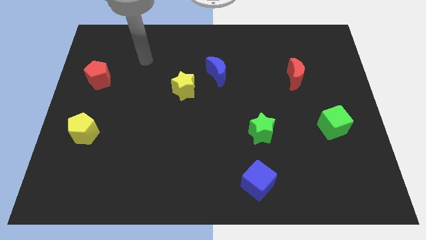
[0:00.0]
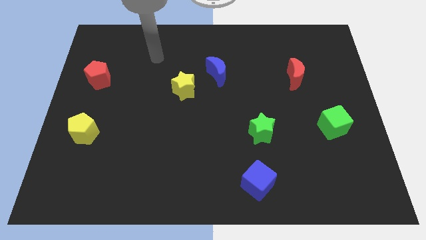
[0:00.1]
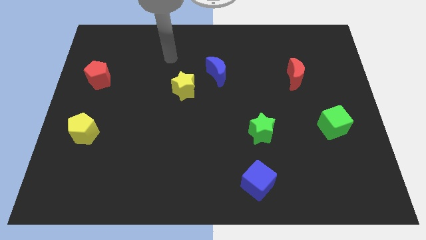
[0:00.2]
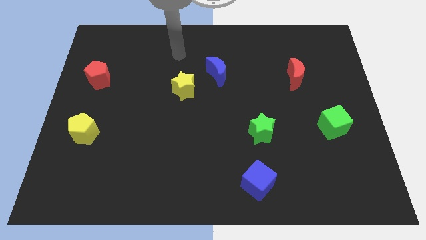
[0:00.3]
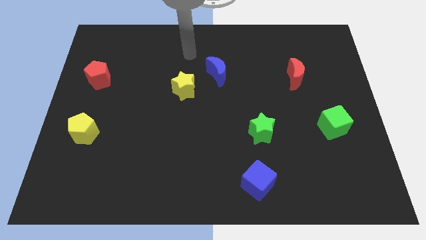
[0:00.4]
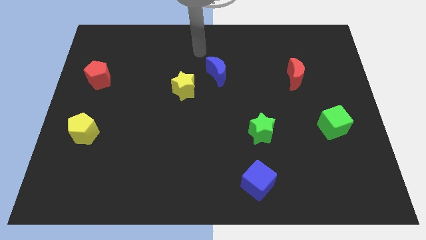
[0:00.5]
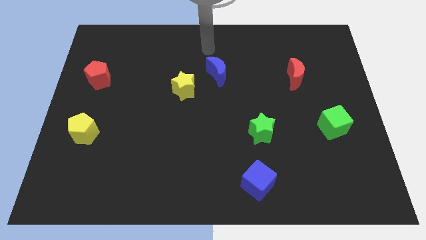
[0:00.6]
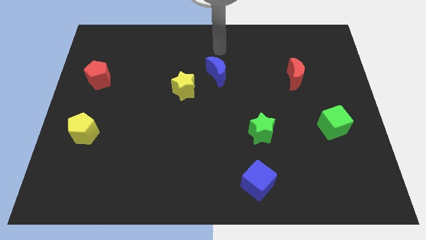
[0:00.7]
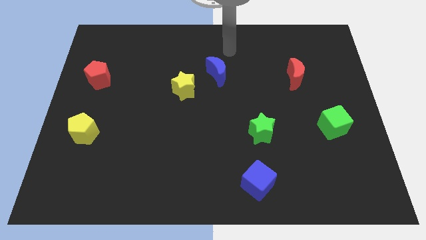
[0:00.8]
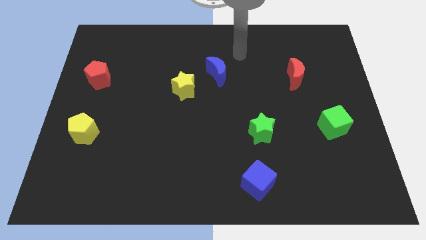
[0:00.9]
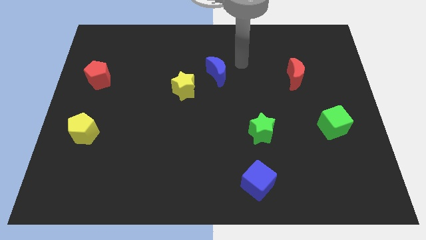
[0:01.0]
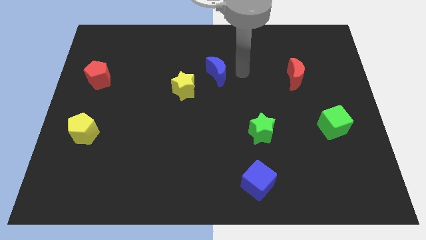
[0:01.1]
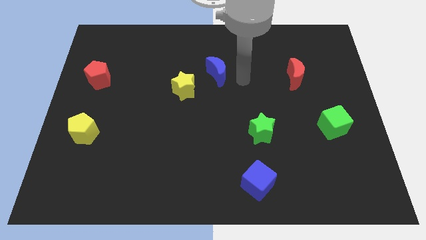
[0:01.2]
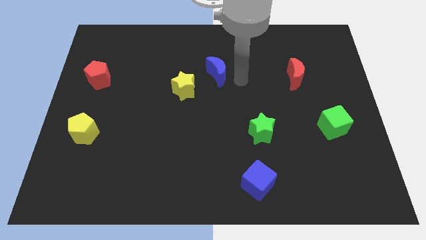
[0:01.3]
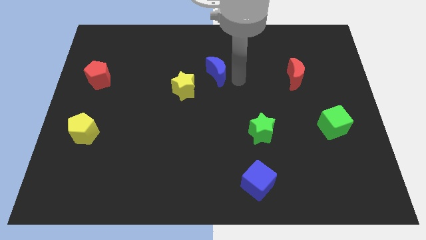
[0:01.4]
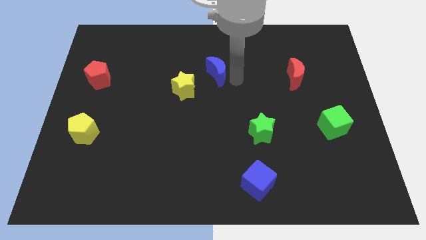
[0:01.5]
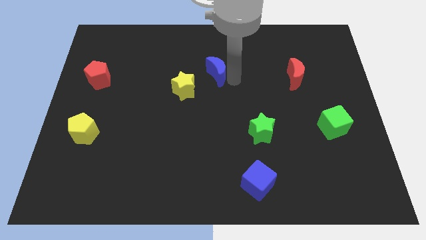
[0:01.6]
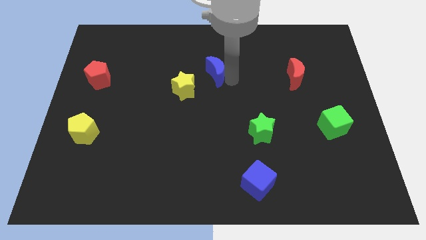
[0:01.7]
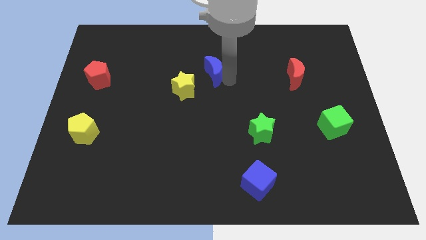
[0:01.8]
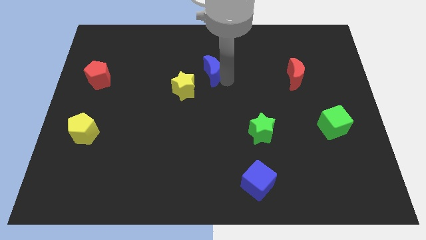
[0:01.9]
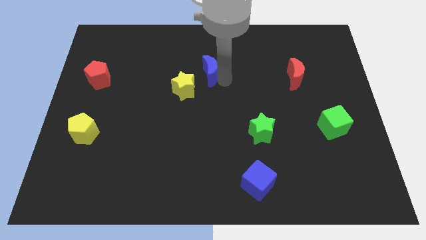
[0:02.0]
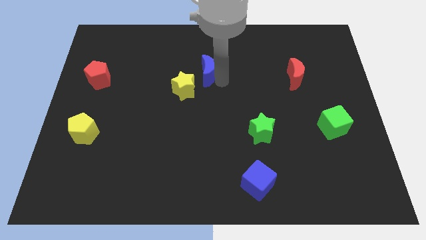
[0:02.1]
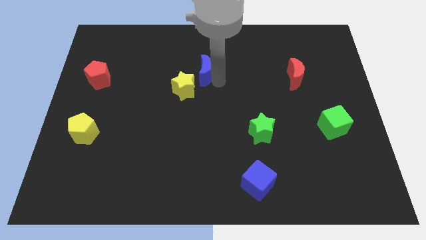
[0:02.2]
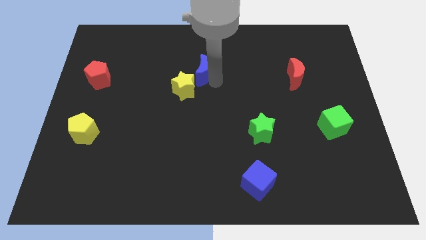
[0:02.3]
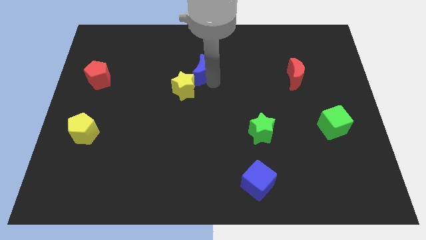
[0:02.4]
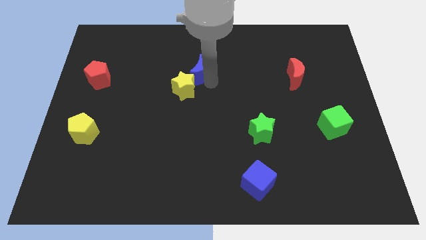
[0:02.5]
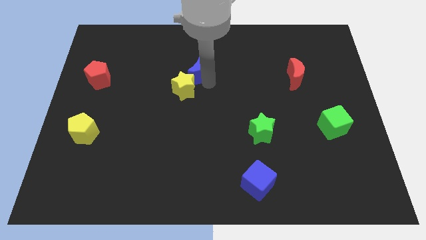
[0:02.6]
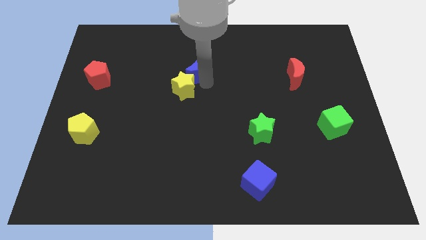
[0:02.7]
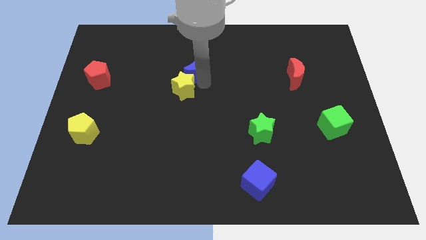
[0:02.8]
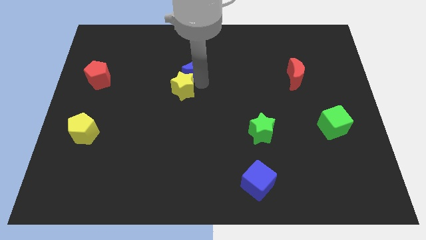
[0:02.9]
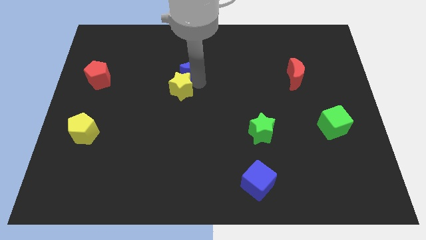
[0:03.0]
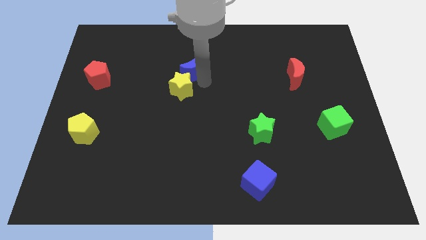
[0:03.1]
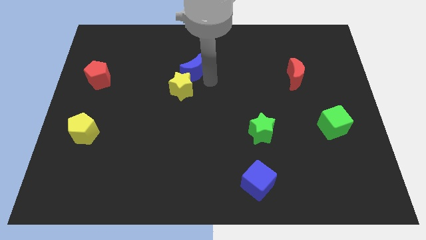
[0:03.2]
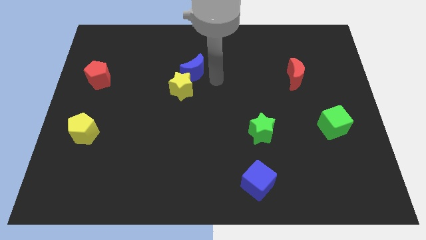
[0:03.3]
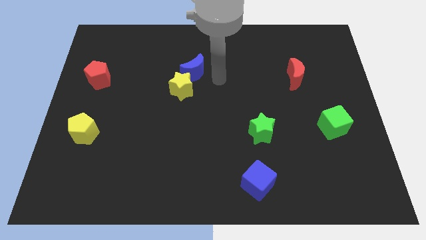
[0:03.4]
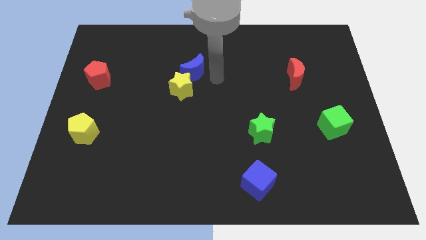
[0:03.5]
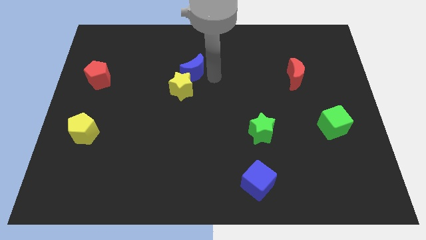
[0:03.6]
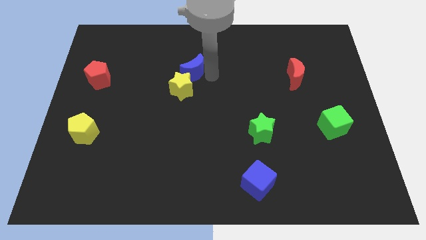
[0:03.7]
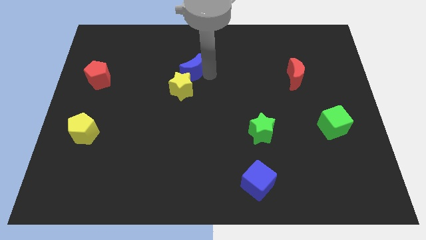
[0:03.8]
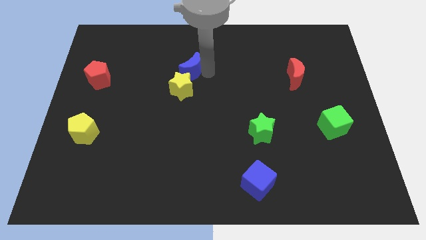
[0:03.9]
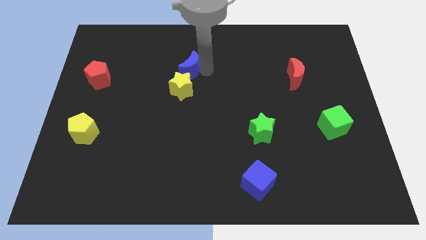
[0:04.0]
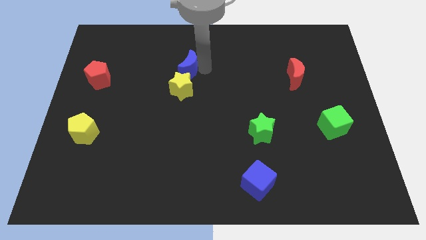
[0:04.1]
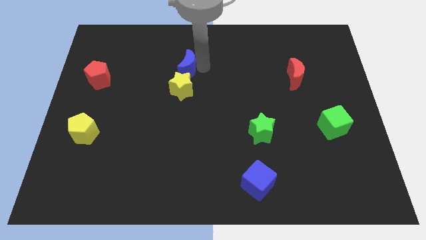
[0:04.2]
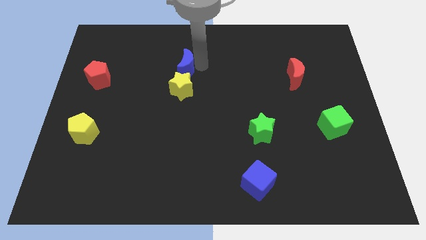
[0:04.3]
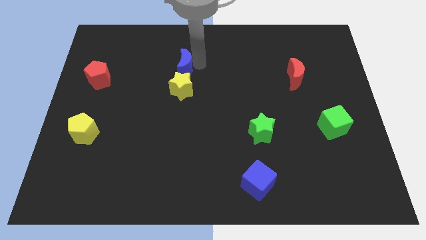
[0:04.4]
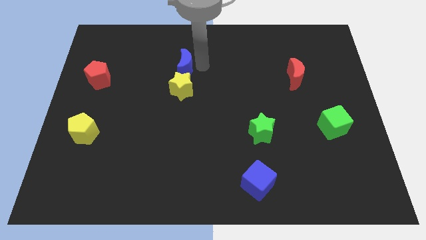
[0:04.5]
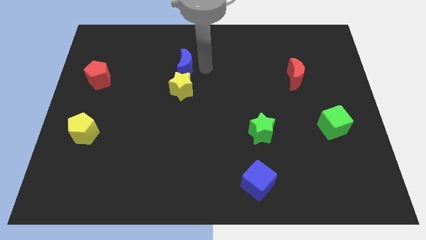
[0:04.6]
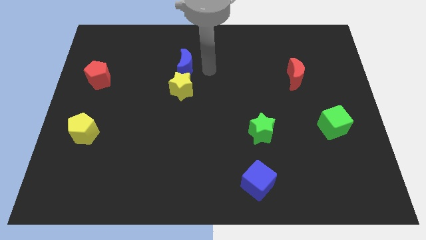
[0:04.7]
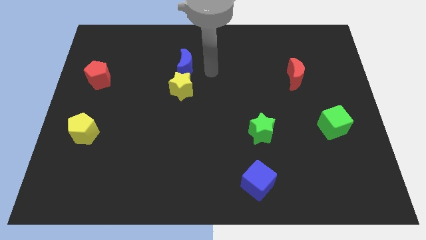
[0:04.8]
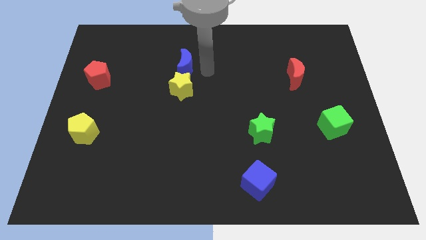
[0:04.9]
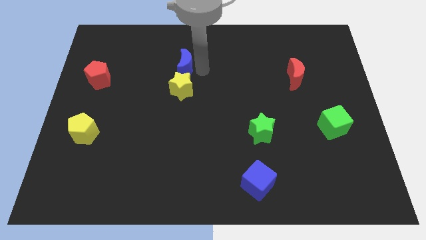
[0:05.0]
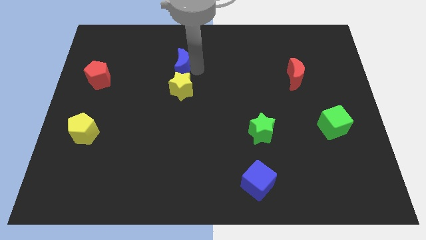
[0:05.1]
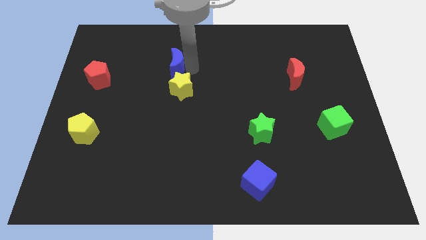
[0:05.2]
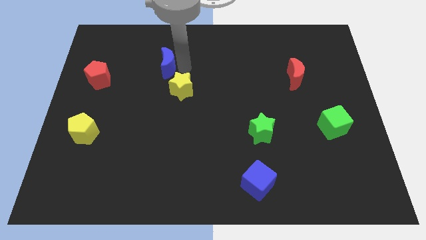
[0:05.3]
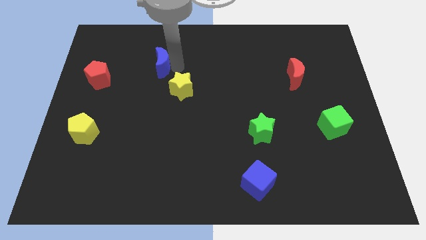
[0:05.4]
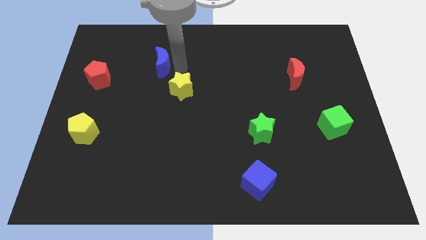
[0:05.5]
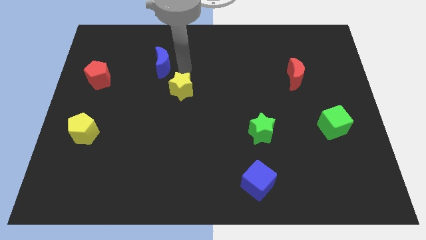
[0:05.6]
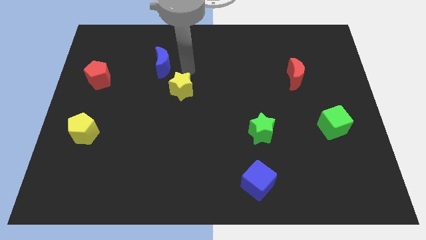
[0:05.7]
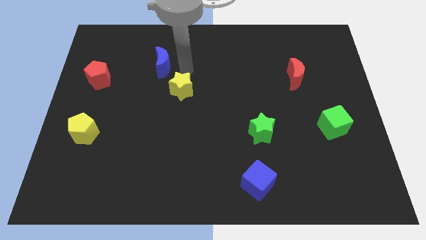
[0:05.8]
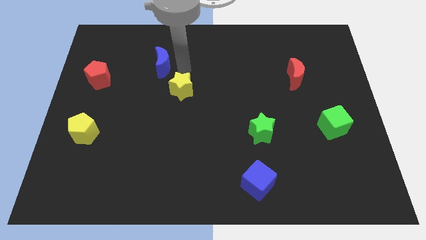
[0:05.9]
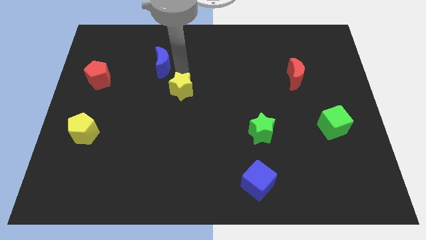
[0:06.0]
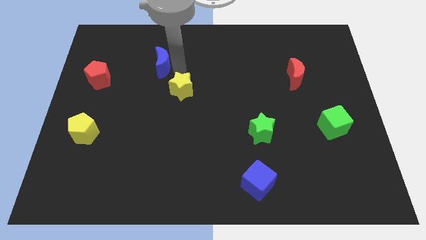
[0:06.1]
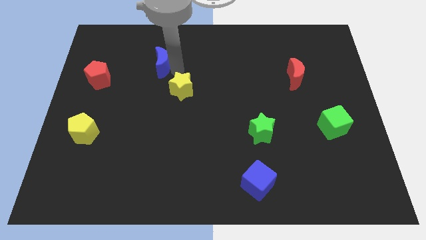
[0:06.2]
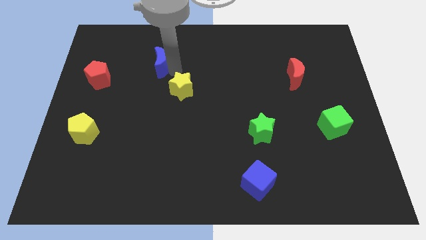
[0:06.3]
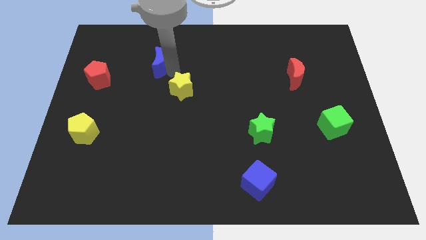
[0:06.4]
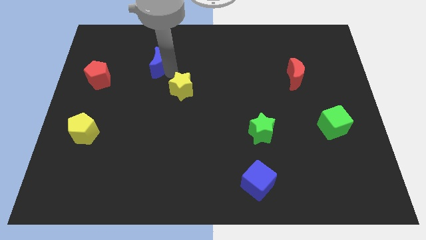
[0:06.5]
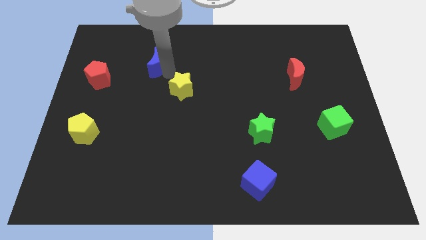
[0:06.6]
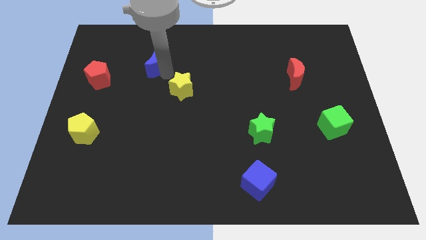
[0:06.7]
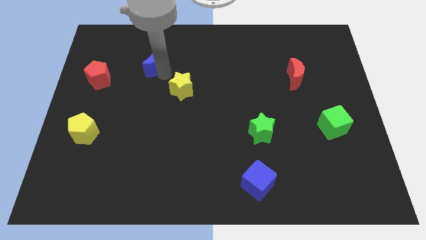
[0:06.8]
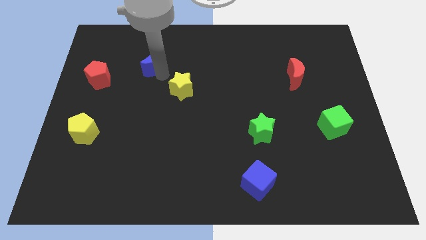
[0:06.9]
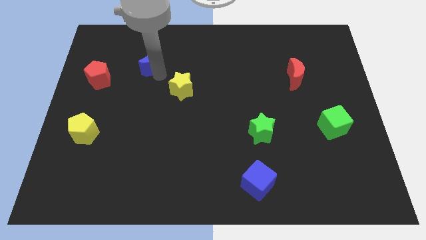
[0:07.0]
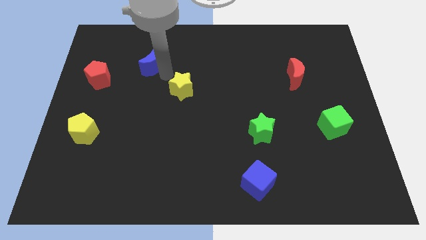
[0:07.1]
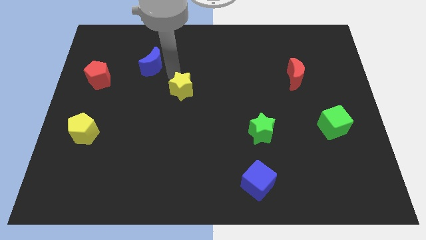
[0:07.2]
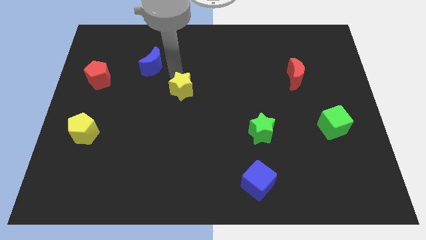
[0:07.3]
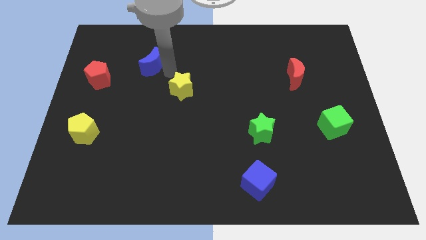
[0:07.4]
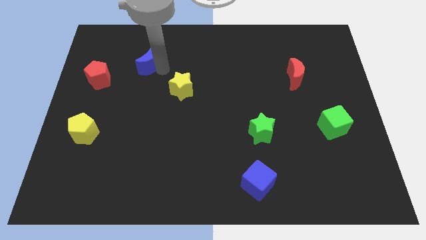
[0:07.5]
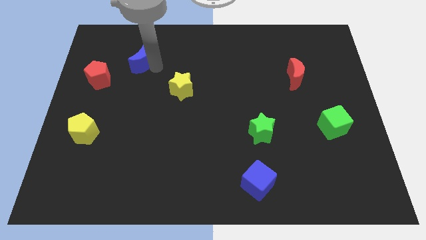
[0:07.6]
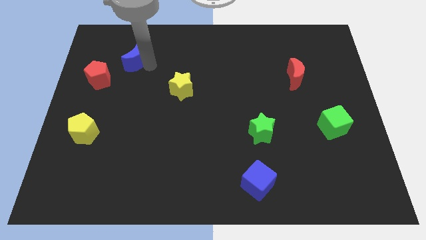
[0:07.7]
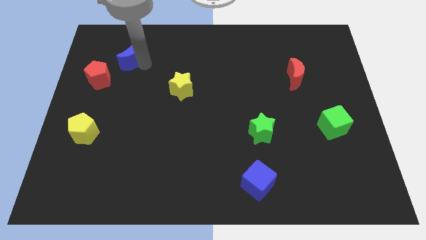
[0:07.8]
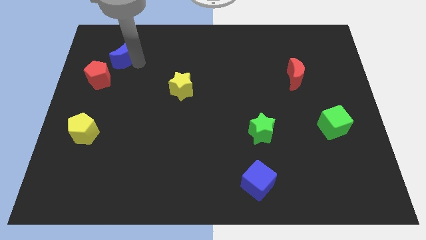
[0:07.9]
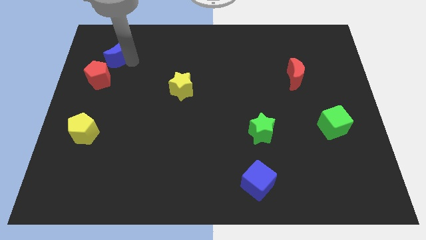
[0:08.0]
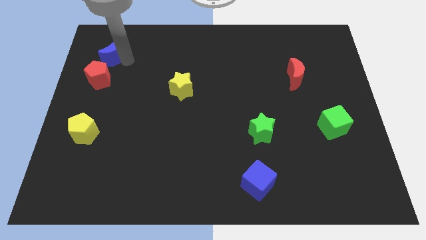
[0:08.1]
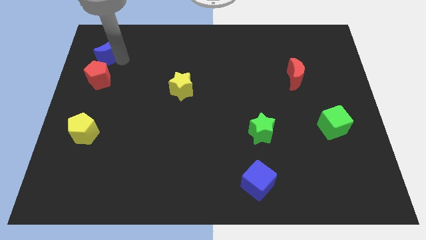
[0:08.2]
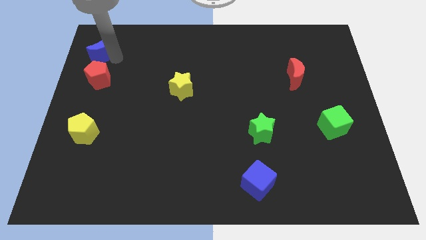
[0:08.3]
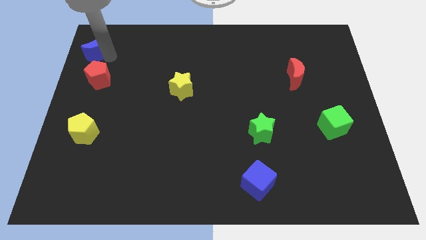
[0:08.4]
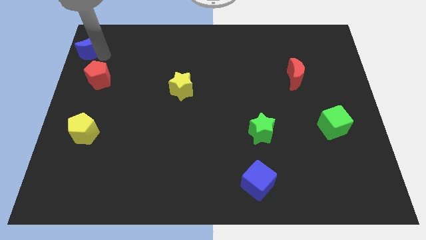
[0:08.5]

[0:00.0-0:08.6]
push the blue moon to the top left corner
